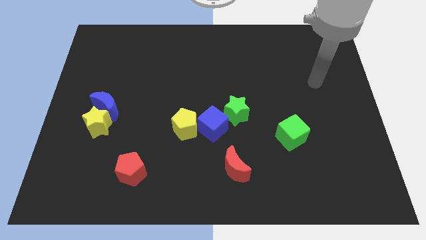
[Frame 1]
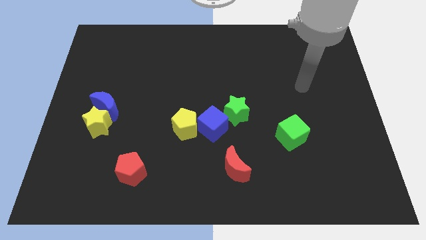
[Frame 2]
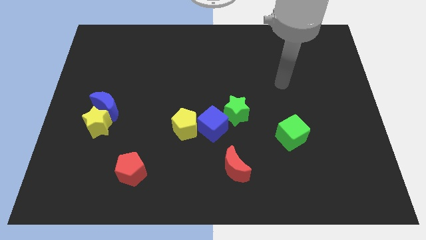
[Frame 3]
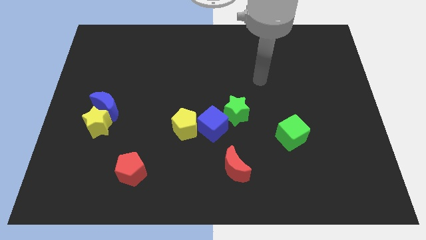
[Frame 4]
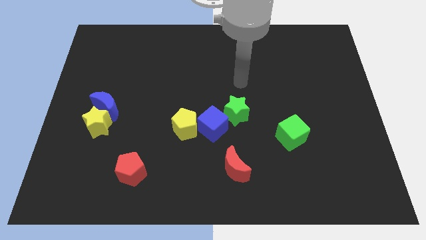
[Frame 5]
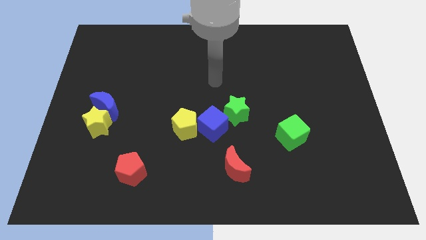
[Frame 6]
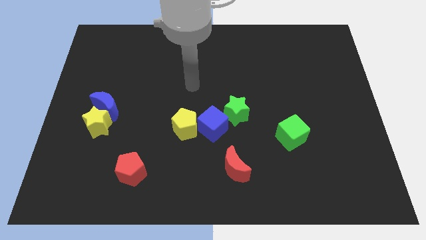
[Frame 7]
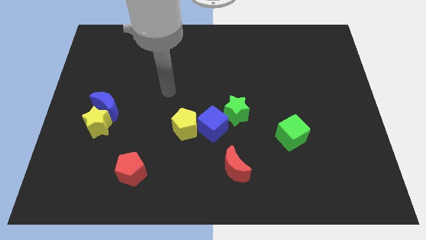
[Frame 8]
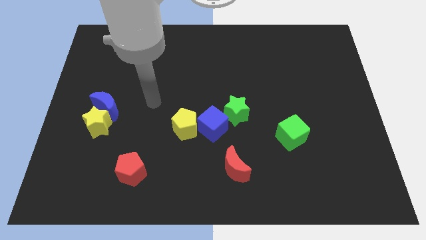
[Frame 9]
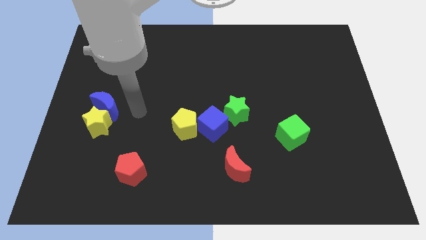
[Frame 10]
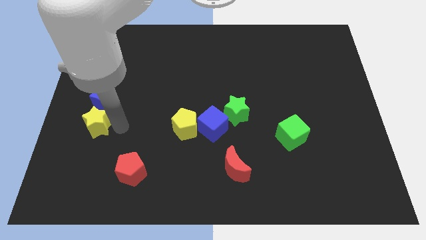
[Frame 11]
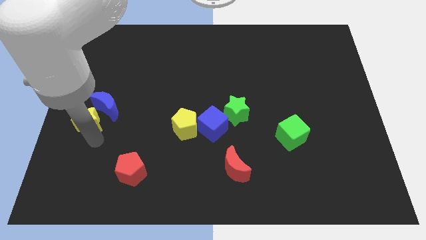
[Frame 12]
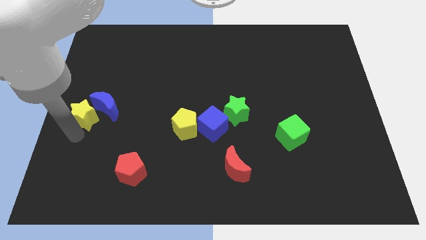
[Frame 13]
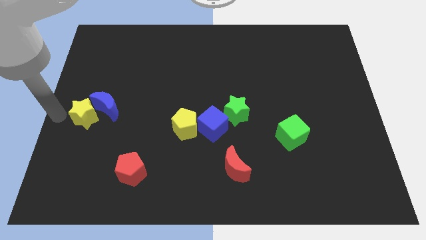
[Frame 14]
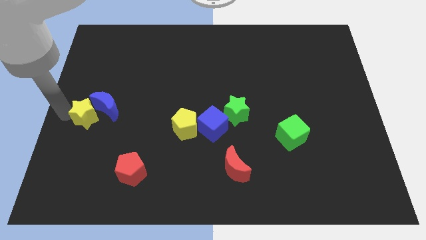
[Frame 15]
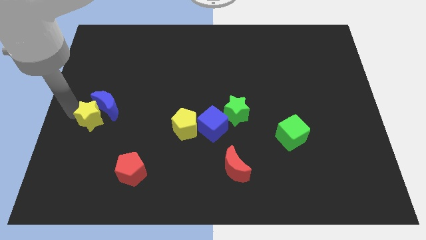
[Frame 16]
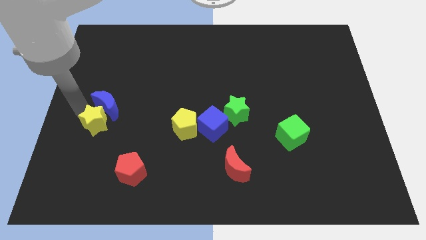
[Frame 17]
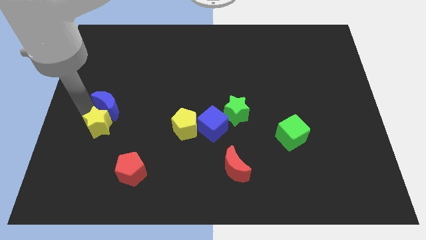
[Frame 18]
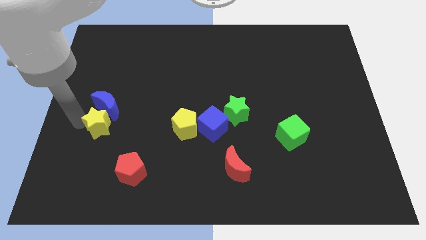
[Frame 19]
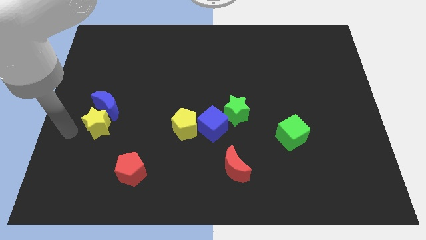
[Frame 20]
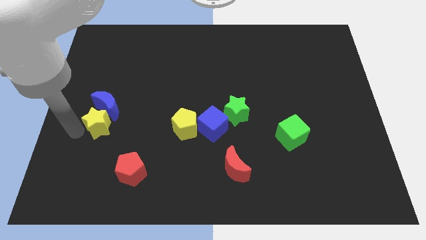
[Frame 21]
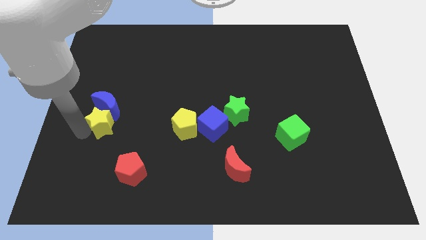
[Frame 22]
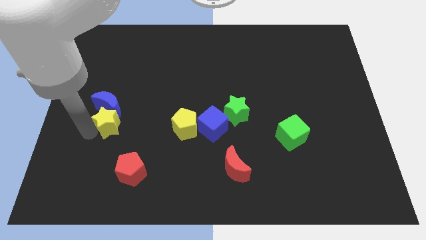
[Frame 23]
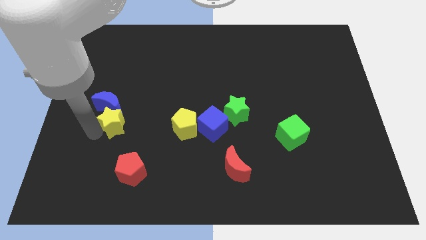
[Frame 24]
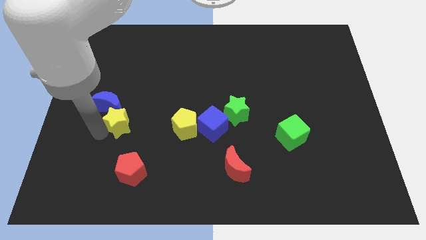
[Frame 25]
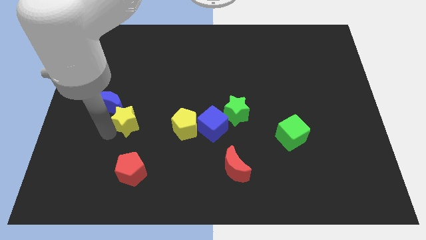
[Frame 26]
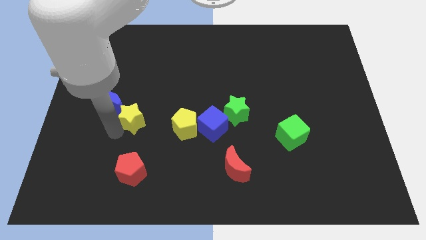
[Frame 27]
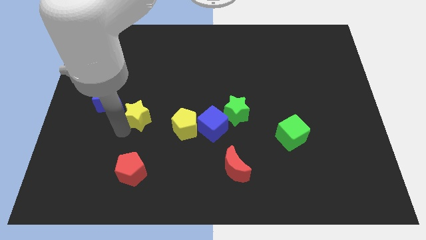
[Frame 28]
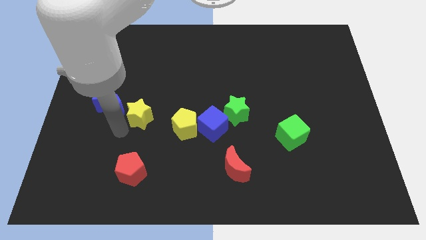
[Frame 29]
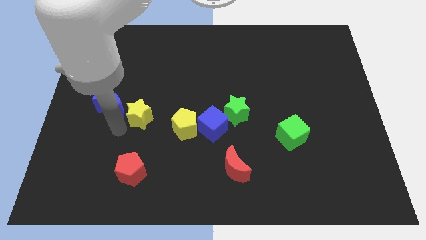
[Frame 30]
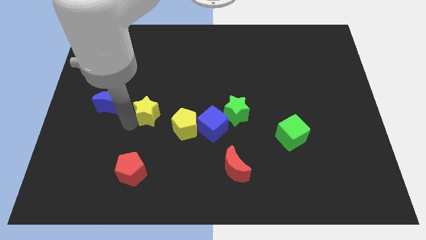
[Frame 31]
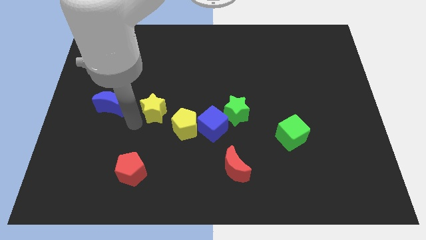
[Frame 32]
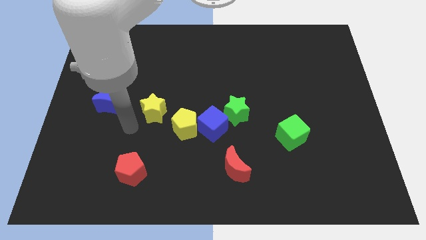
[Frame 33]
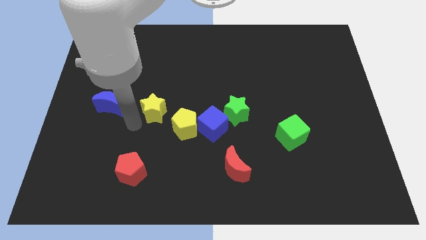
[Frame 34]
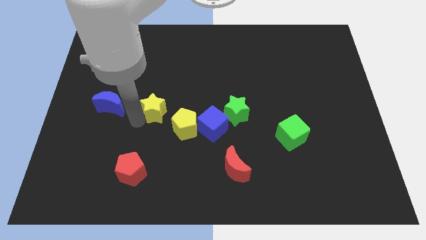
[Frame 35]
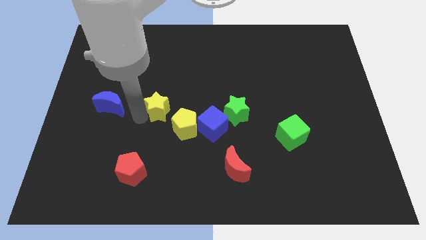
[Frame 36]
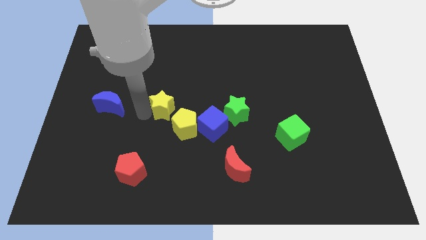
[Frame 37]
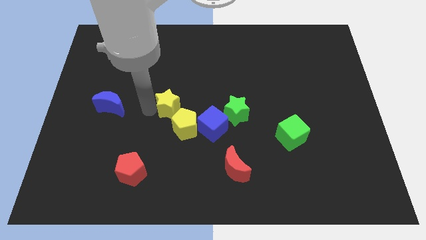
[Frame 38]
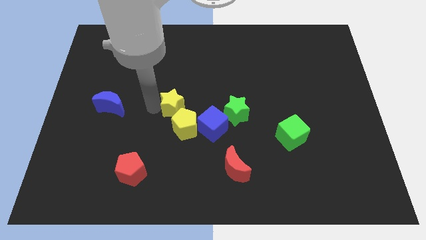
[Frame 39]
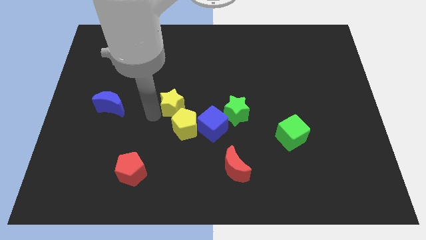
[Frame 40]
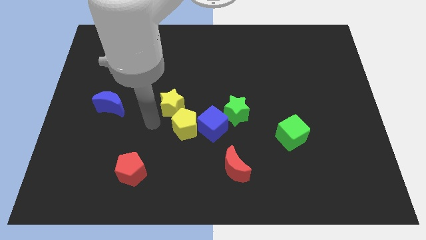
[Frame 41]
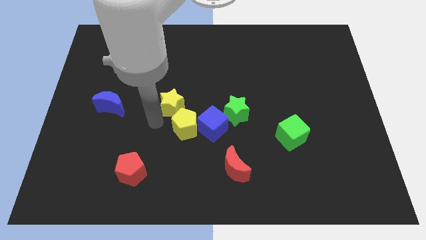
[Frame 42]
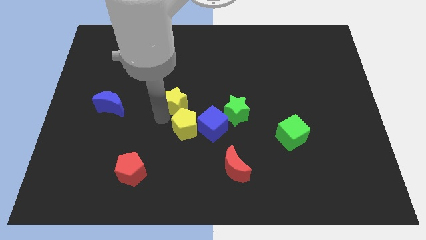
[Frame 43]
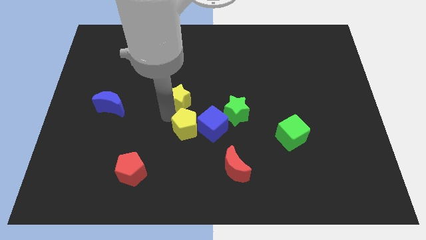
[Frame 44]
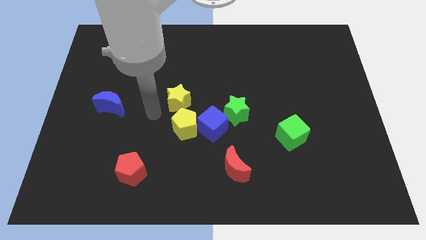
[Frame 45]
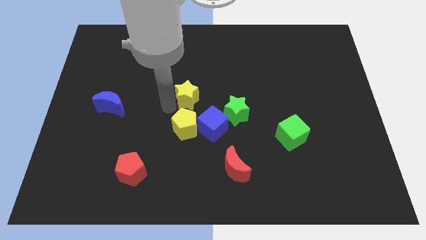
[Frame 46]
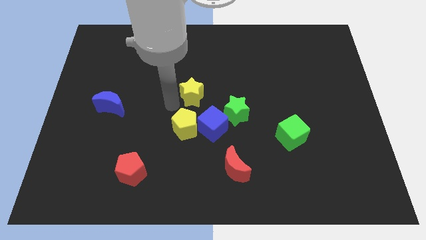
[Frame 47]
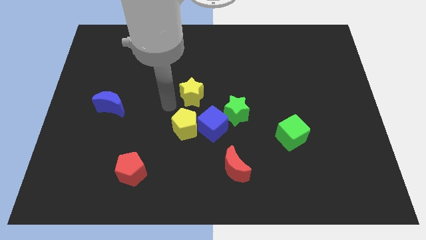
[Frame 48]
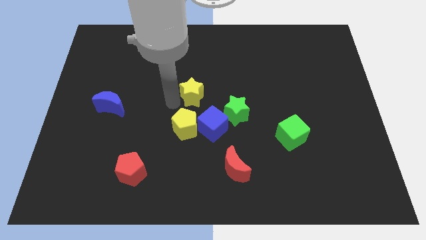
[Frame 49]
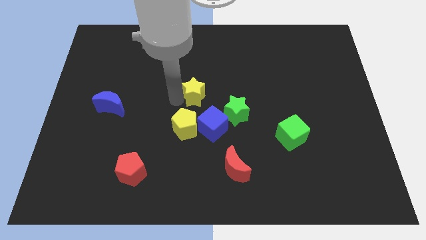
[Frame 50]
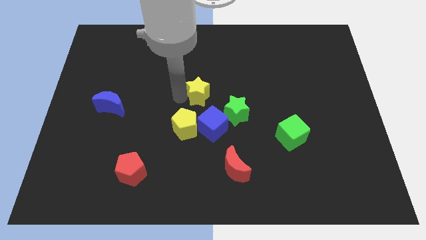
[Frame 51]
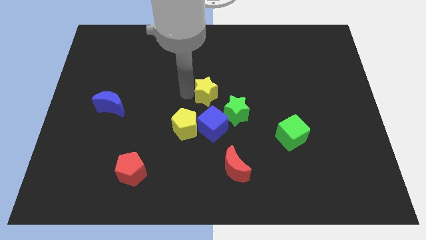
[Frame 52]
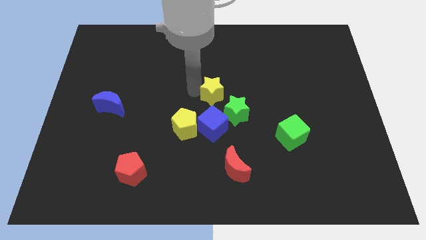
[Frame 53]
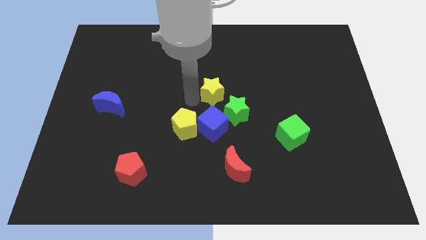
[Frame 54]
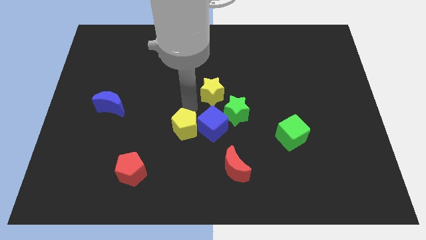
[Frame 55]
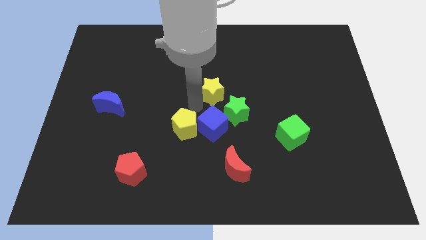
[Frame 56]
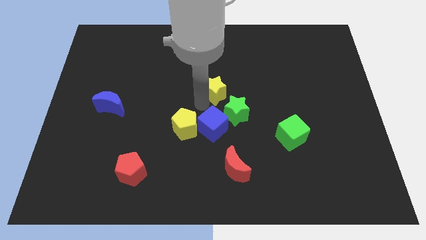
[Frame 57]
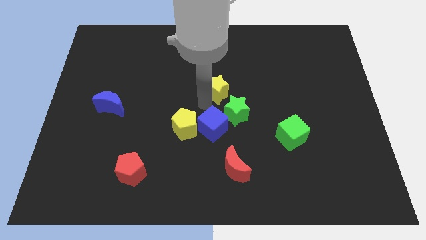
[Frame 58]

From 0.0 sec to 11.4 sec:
move the yellow star to the top of the green star

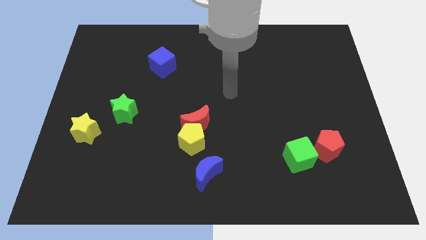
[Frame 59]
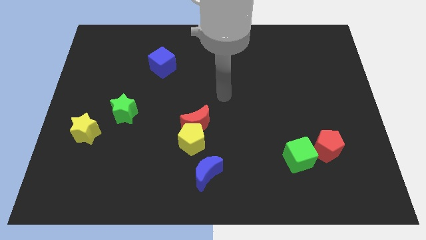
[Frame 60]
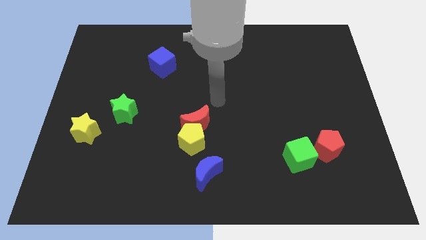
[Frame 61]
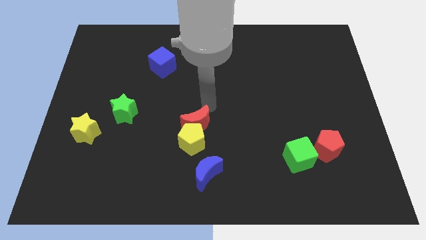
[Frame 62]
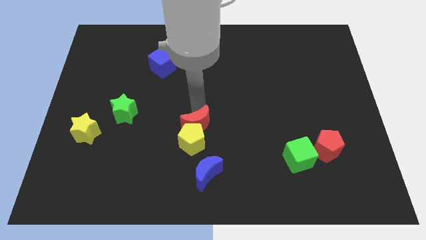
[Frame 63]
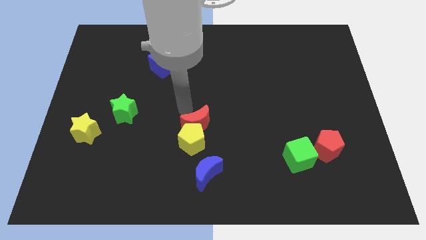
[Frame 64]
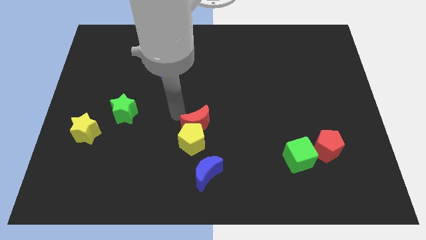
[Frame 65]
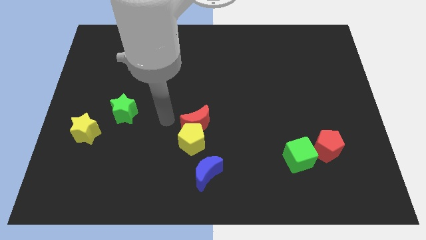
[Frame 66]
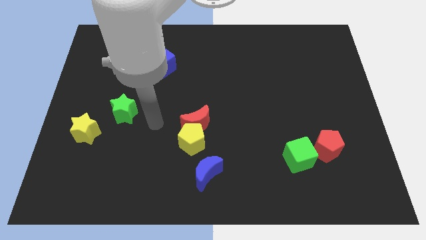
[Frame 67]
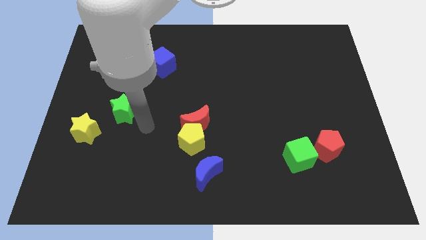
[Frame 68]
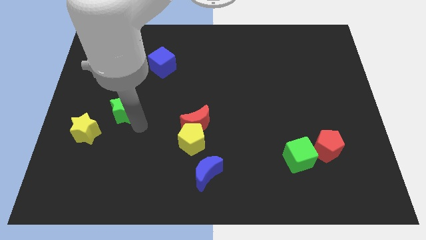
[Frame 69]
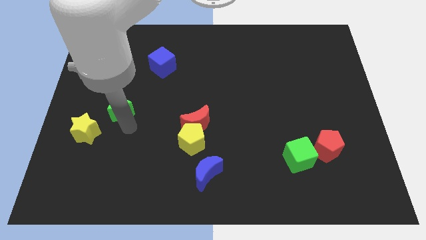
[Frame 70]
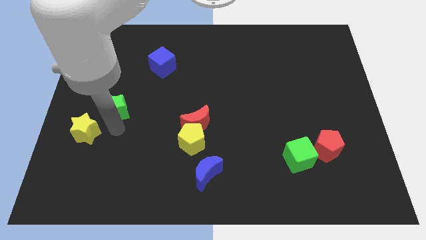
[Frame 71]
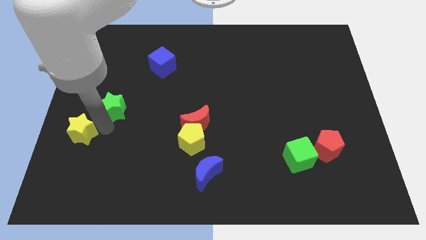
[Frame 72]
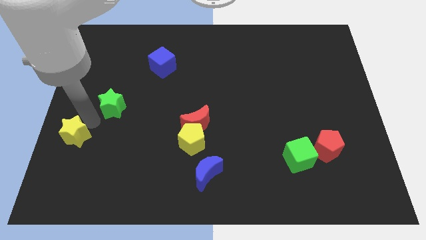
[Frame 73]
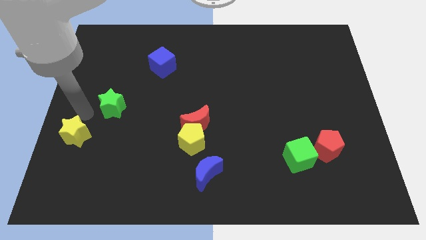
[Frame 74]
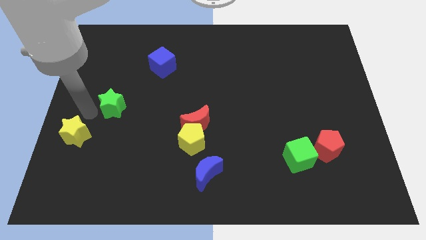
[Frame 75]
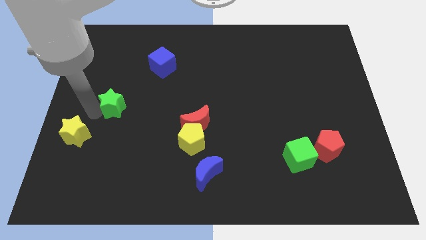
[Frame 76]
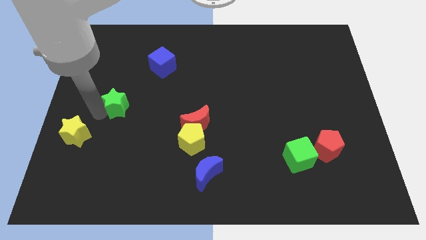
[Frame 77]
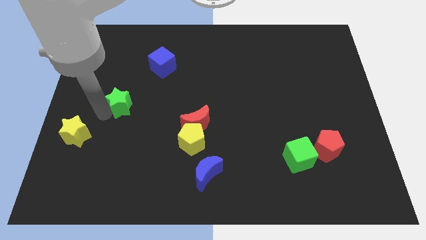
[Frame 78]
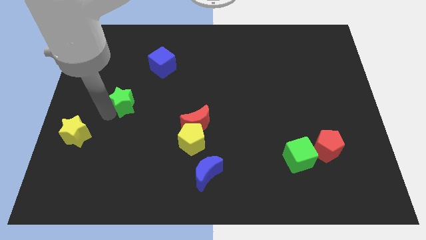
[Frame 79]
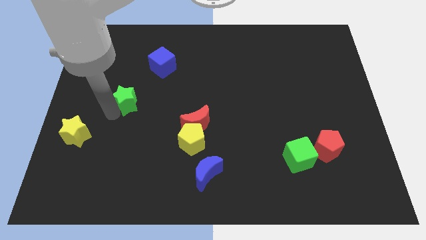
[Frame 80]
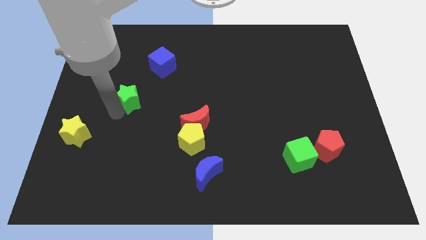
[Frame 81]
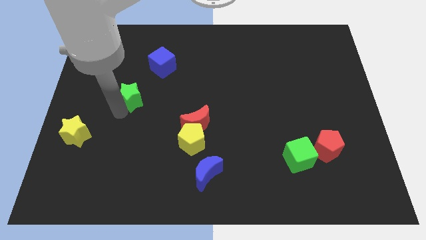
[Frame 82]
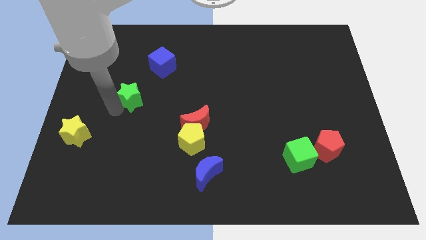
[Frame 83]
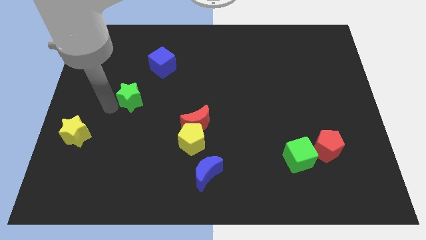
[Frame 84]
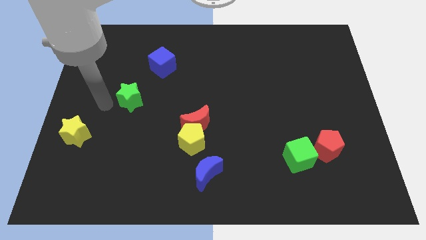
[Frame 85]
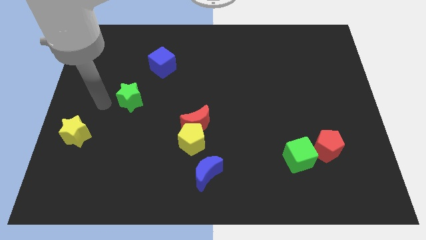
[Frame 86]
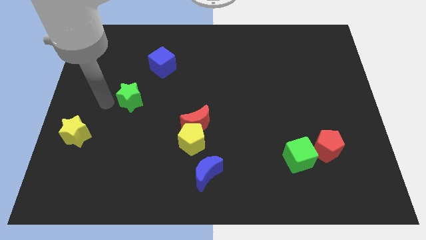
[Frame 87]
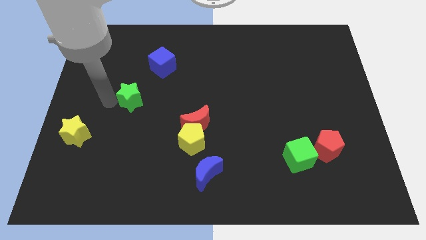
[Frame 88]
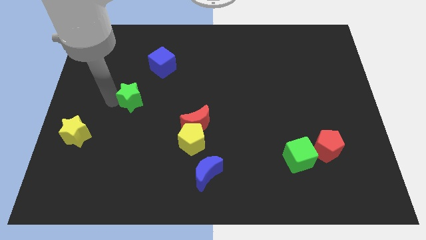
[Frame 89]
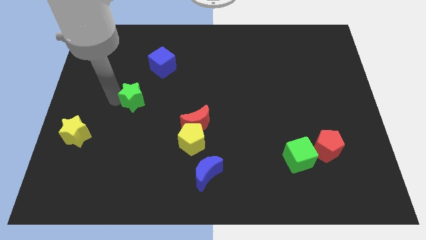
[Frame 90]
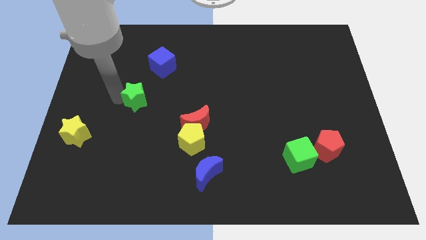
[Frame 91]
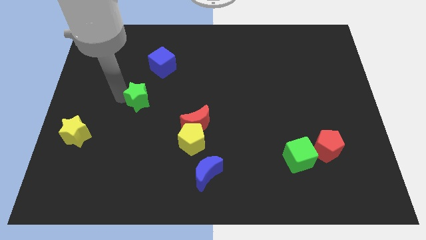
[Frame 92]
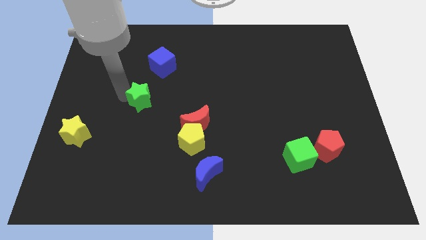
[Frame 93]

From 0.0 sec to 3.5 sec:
move the green star below the blue cube
